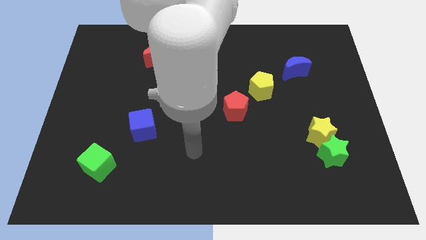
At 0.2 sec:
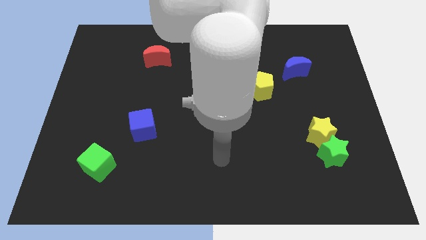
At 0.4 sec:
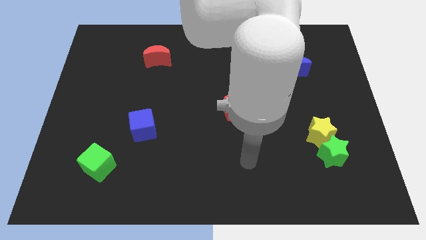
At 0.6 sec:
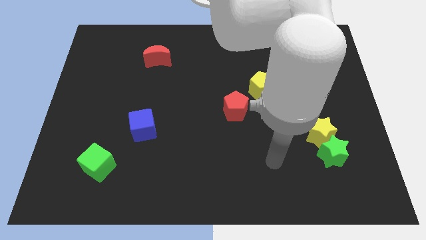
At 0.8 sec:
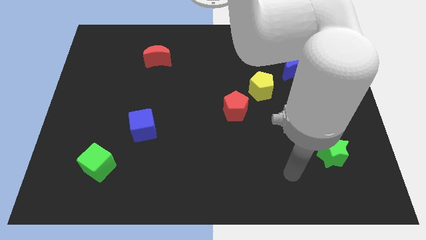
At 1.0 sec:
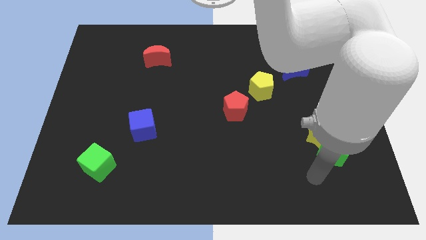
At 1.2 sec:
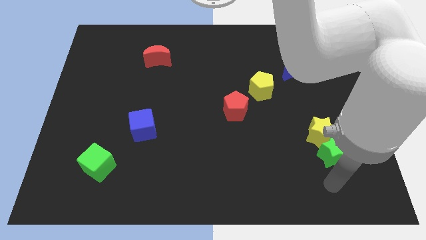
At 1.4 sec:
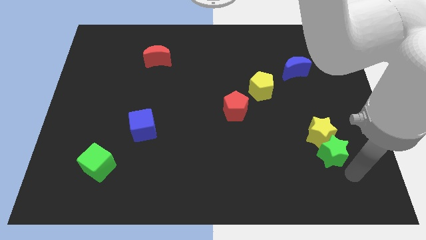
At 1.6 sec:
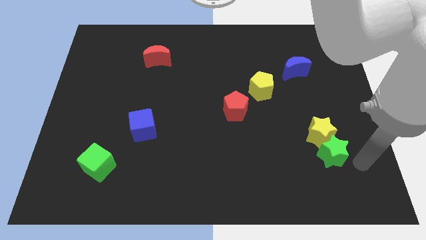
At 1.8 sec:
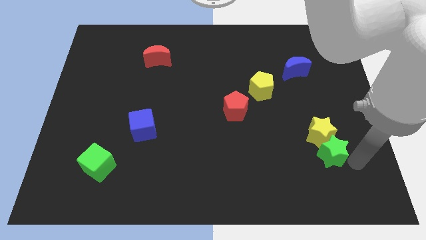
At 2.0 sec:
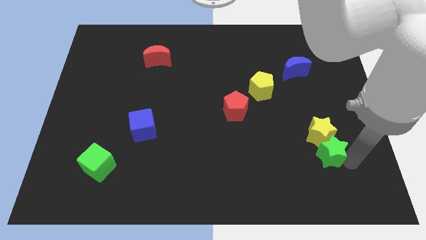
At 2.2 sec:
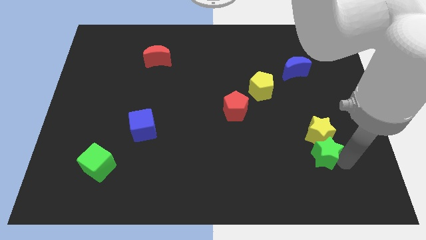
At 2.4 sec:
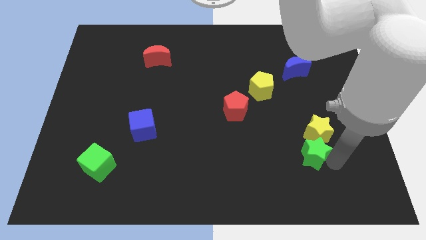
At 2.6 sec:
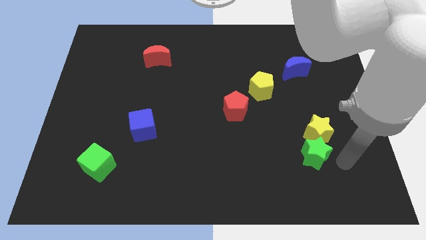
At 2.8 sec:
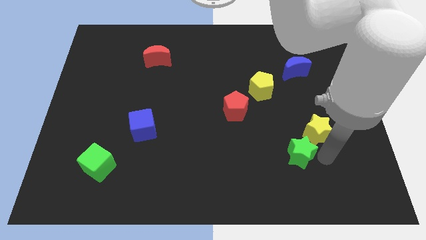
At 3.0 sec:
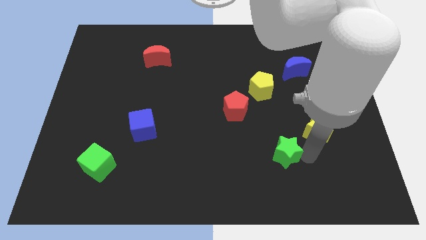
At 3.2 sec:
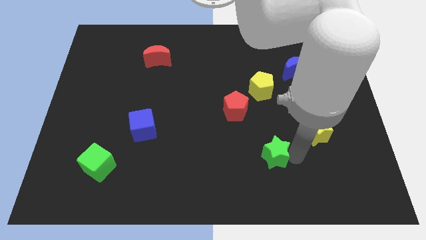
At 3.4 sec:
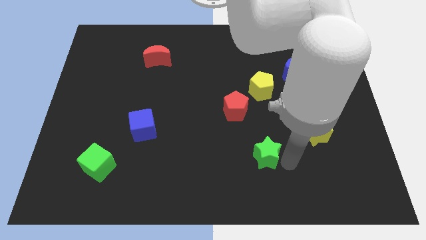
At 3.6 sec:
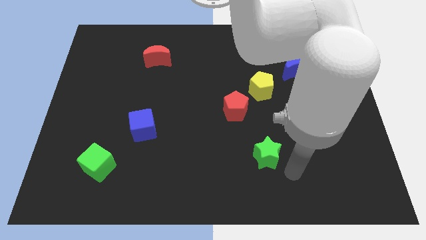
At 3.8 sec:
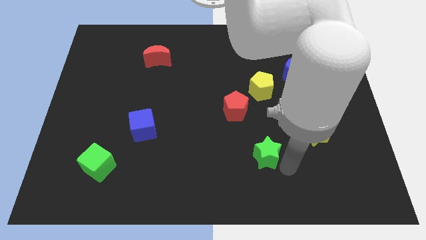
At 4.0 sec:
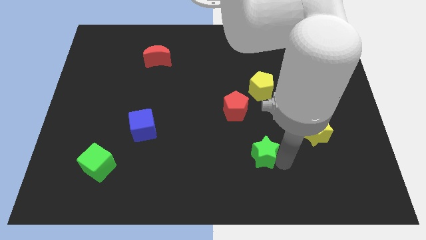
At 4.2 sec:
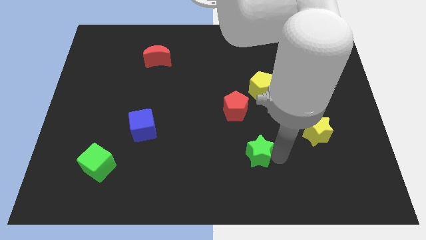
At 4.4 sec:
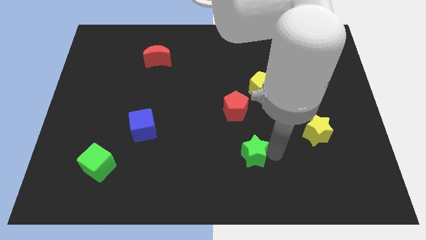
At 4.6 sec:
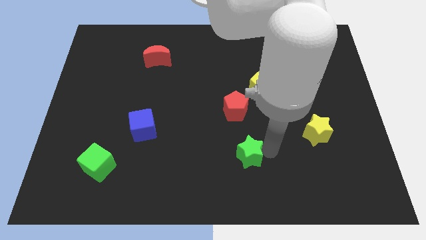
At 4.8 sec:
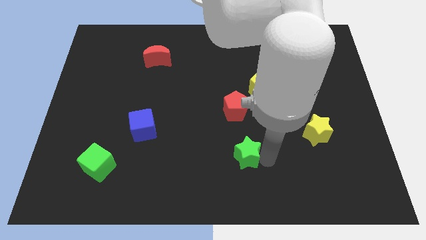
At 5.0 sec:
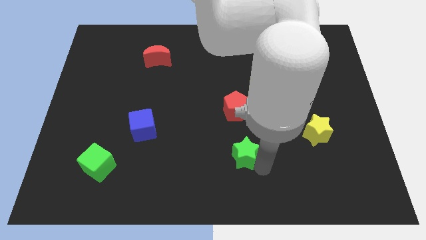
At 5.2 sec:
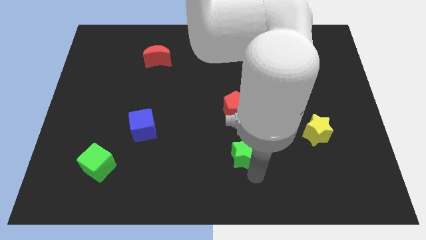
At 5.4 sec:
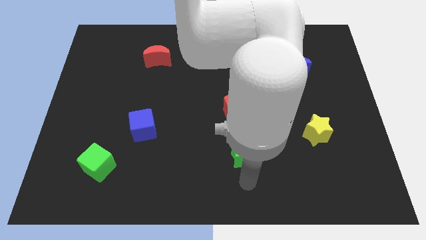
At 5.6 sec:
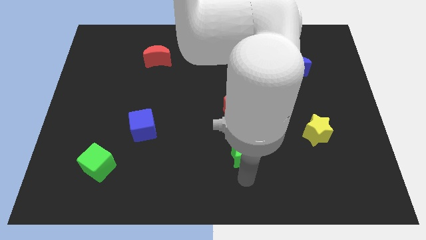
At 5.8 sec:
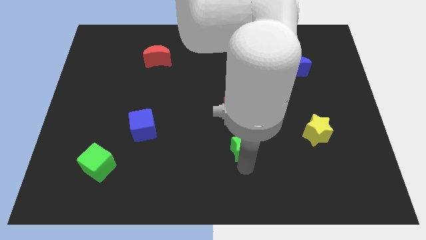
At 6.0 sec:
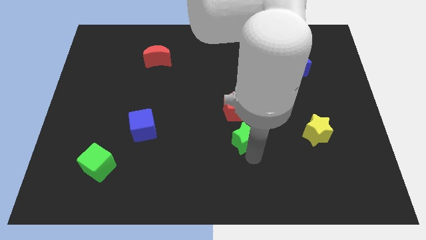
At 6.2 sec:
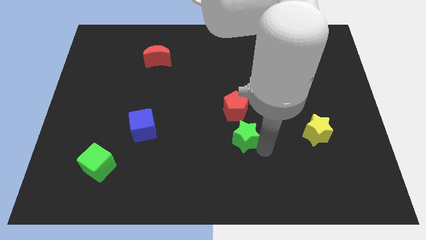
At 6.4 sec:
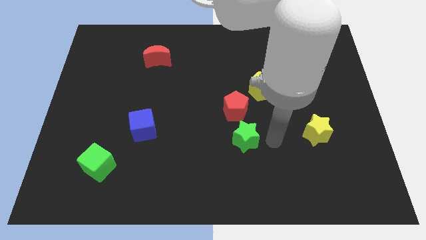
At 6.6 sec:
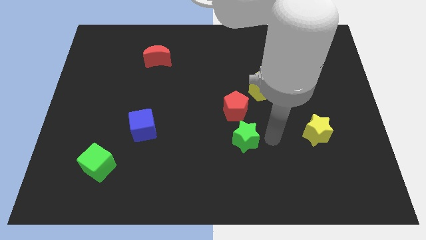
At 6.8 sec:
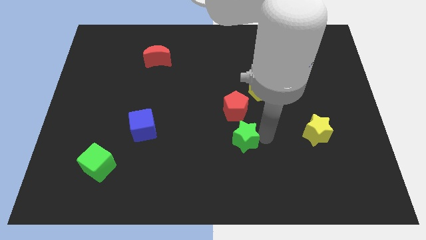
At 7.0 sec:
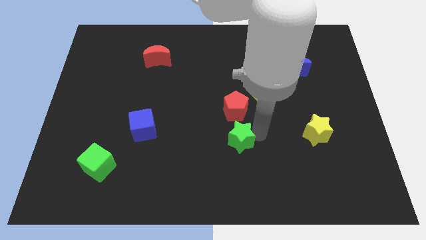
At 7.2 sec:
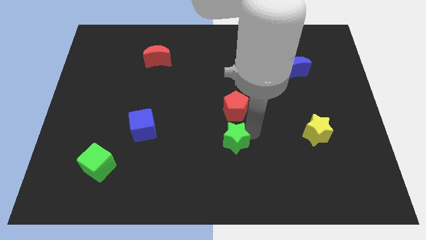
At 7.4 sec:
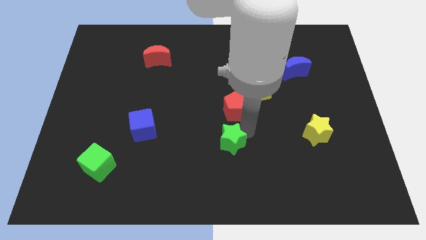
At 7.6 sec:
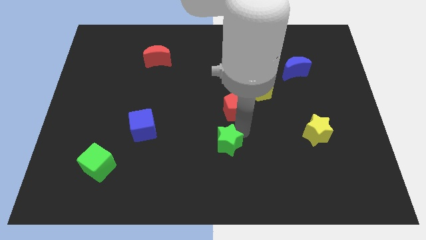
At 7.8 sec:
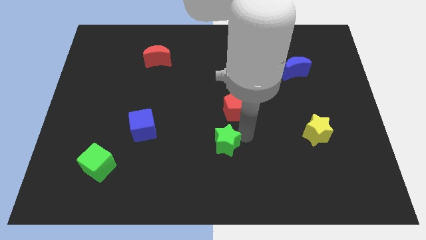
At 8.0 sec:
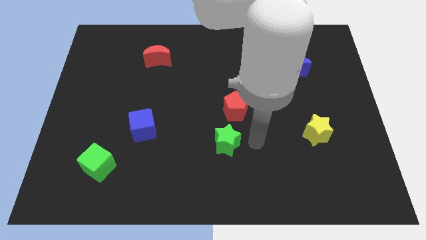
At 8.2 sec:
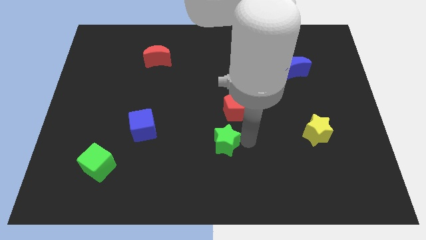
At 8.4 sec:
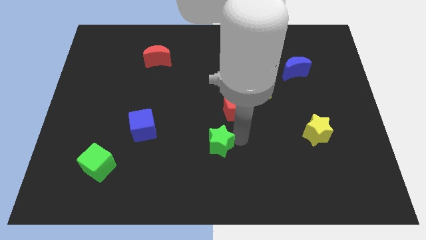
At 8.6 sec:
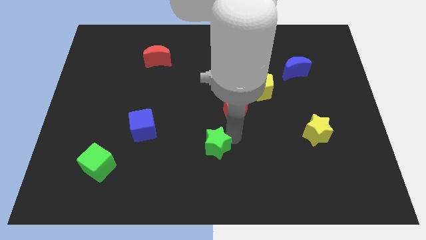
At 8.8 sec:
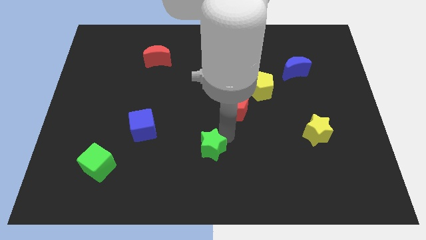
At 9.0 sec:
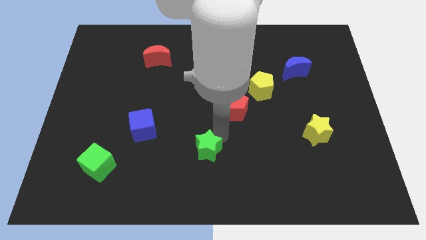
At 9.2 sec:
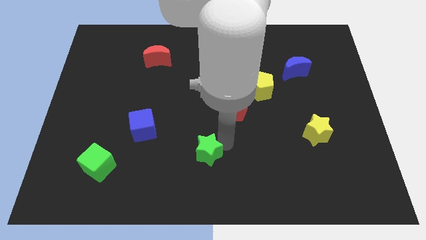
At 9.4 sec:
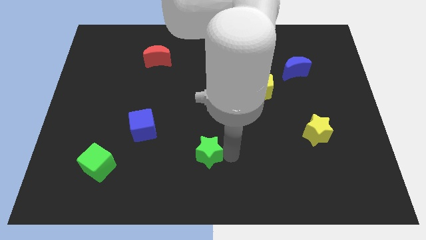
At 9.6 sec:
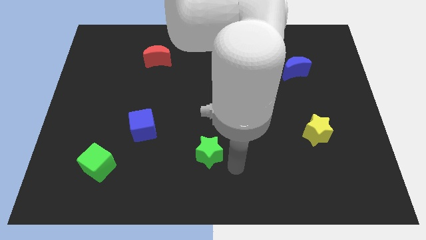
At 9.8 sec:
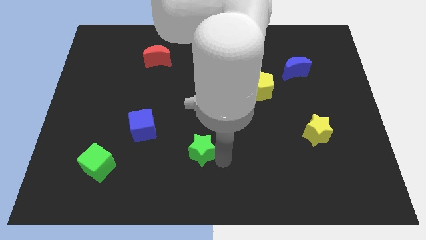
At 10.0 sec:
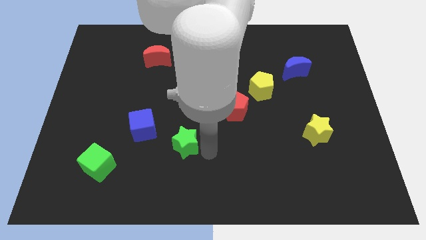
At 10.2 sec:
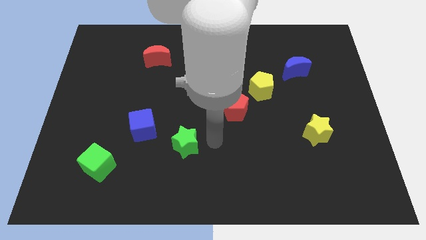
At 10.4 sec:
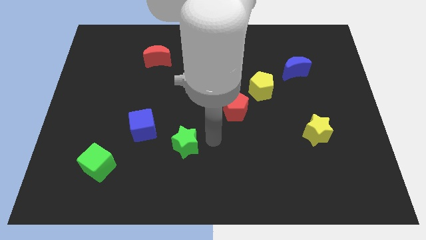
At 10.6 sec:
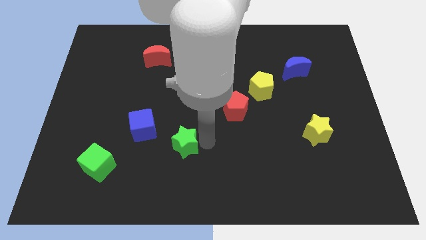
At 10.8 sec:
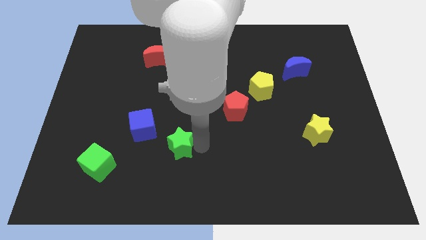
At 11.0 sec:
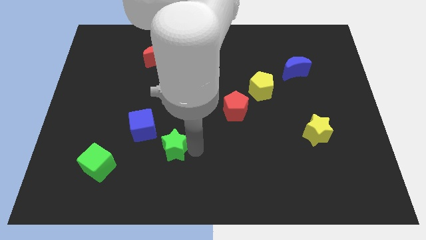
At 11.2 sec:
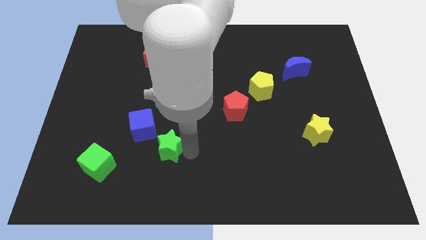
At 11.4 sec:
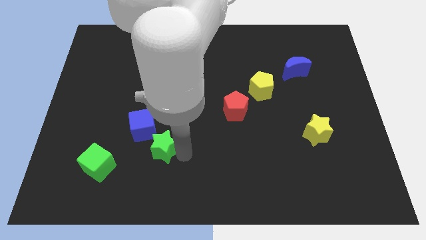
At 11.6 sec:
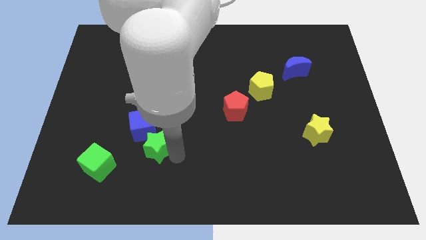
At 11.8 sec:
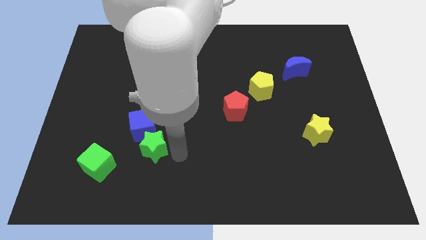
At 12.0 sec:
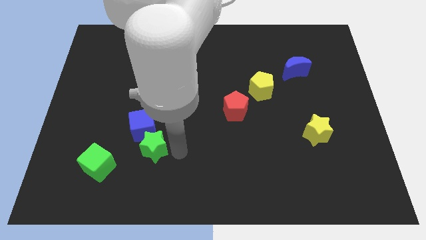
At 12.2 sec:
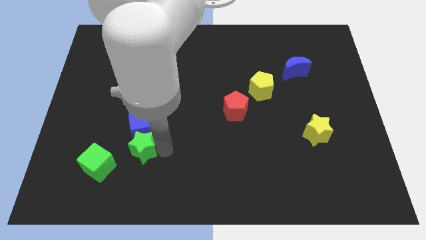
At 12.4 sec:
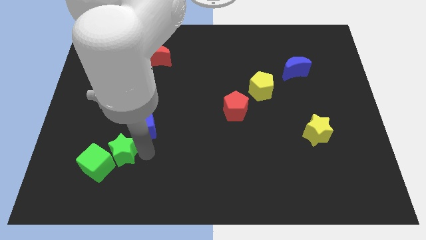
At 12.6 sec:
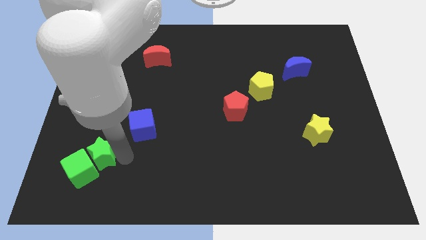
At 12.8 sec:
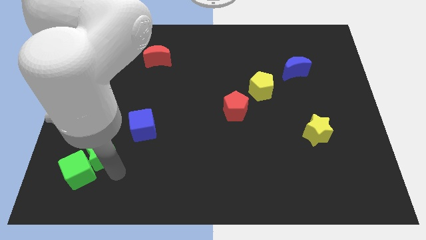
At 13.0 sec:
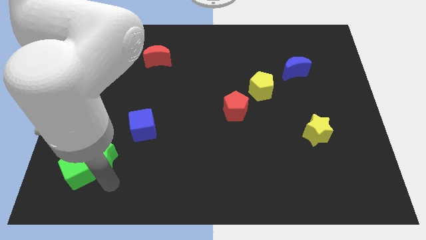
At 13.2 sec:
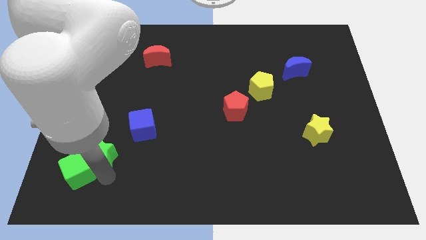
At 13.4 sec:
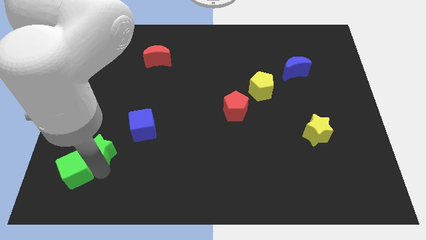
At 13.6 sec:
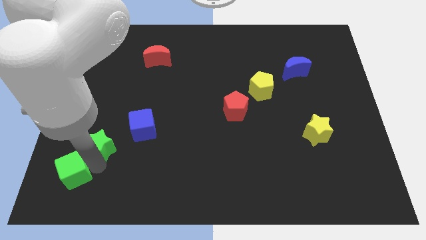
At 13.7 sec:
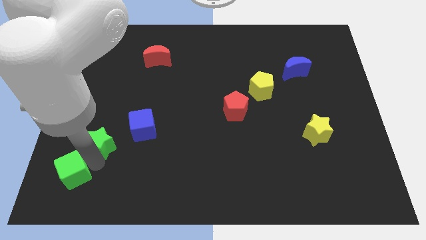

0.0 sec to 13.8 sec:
put the green star to the left side of the blue cube
